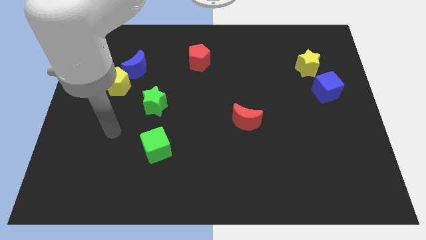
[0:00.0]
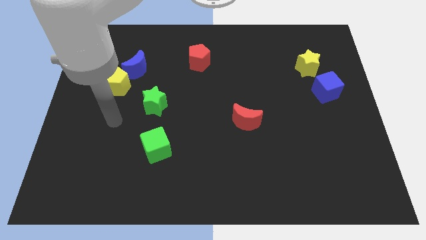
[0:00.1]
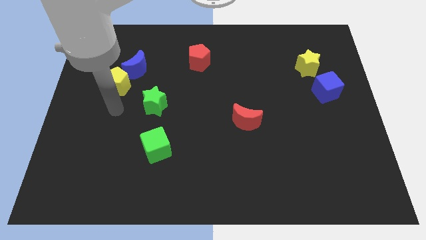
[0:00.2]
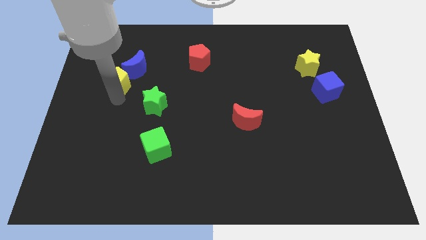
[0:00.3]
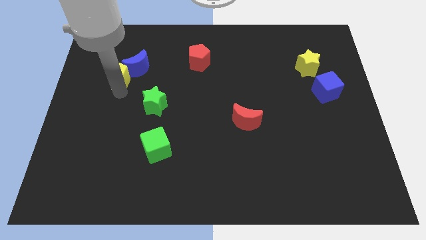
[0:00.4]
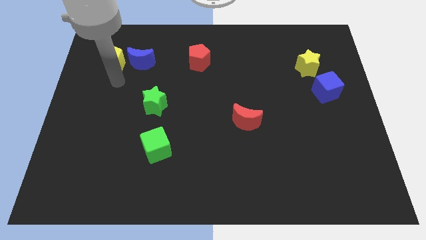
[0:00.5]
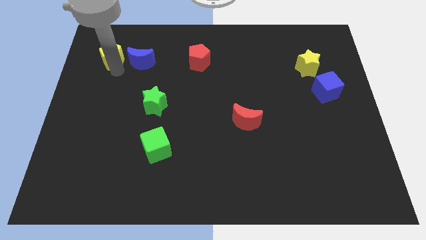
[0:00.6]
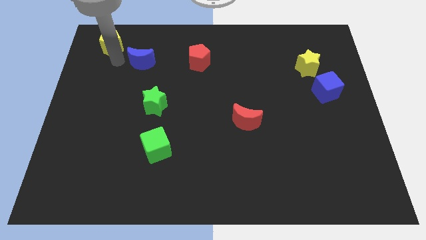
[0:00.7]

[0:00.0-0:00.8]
pull the blue moon apart from the yellow pentagon

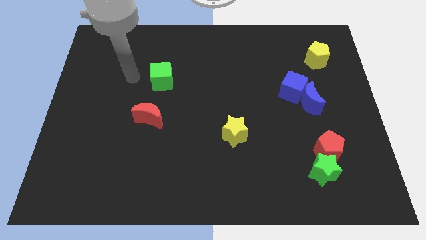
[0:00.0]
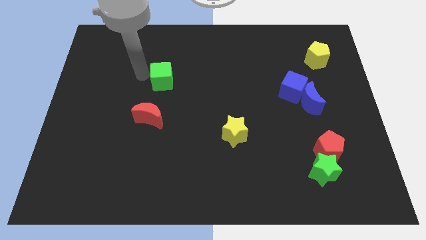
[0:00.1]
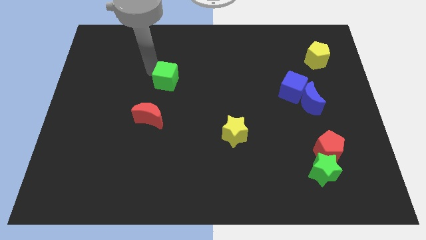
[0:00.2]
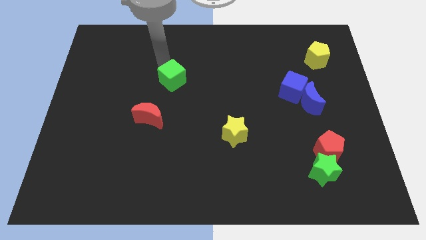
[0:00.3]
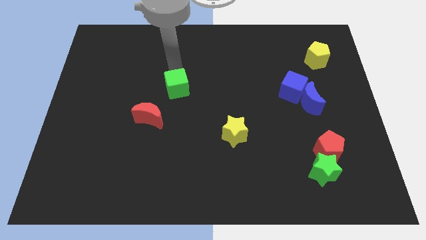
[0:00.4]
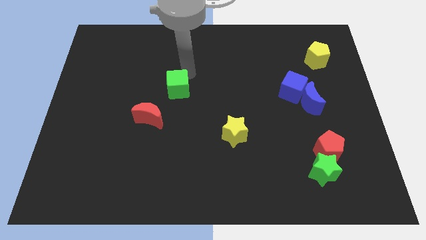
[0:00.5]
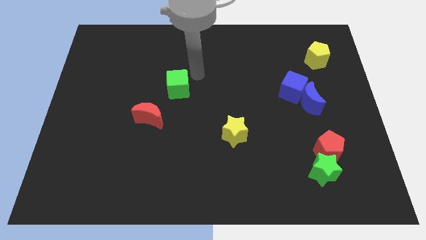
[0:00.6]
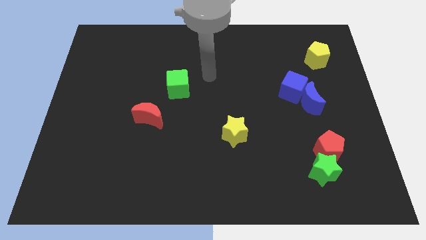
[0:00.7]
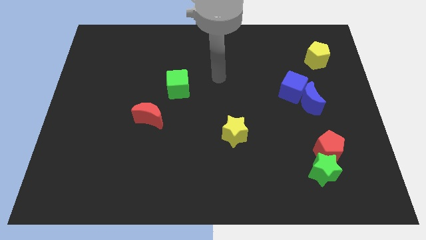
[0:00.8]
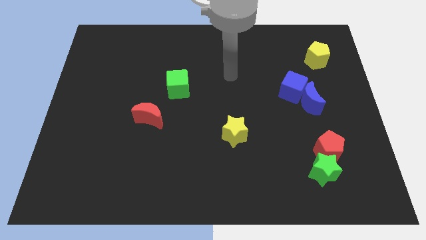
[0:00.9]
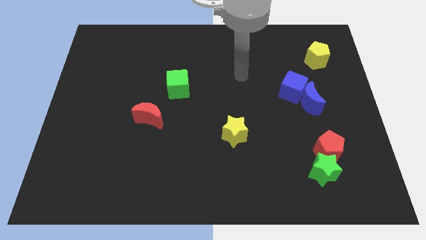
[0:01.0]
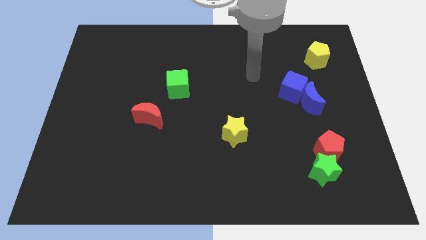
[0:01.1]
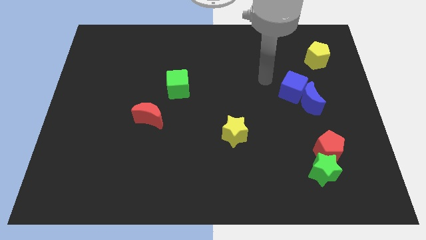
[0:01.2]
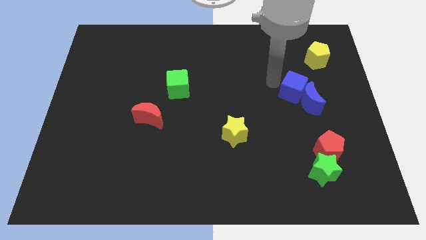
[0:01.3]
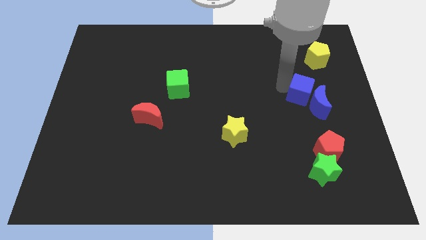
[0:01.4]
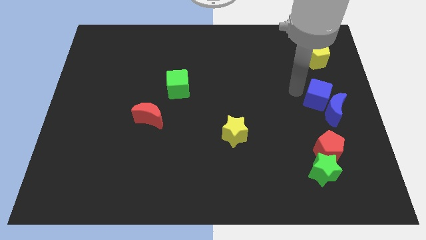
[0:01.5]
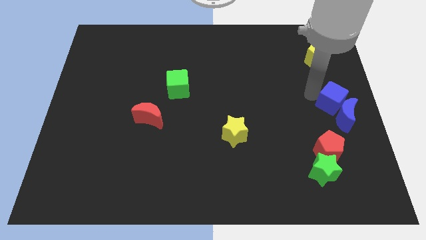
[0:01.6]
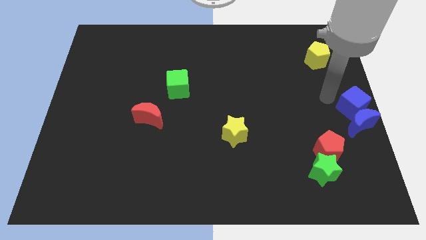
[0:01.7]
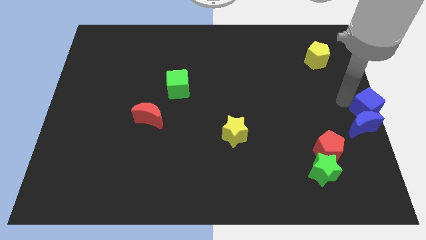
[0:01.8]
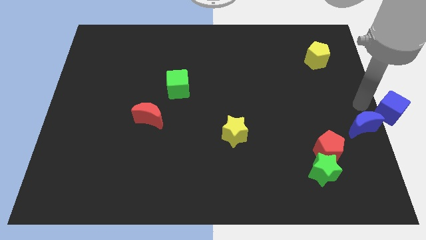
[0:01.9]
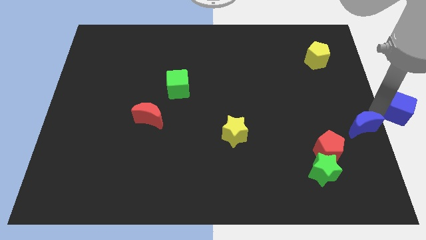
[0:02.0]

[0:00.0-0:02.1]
move the blue moon away from the blue cube

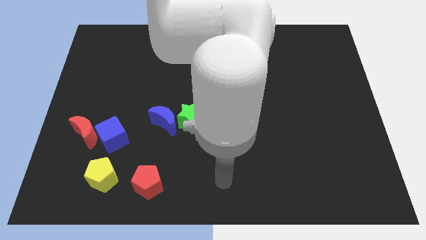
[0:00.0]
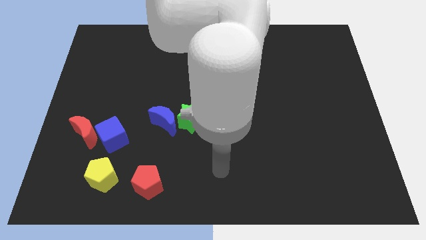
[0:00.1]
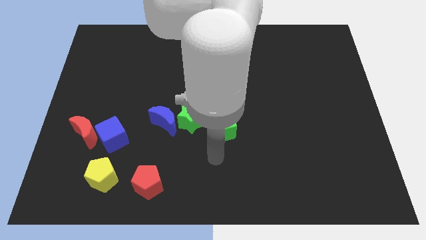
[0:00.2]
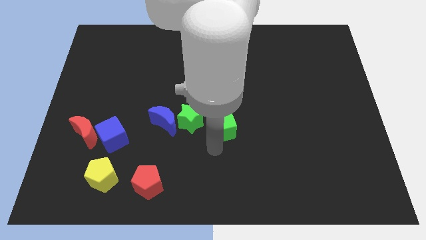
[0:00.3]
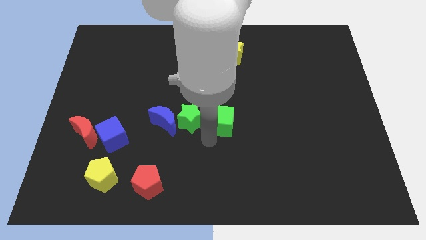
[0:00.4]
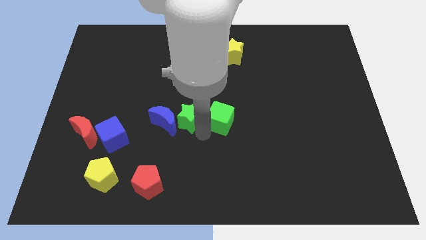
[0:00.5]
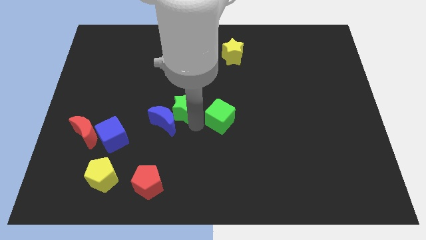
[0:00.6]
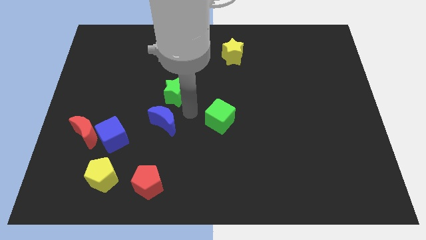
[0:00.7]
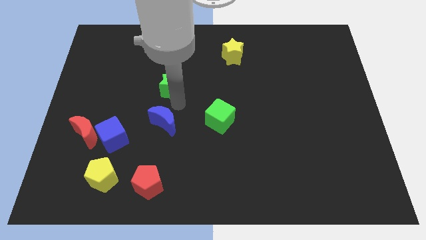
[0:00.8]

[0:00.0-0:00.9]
separate the blue moon from the green star

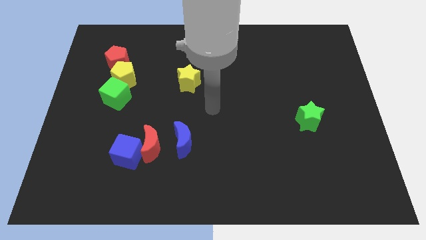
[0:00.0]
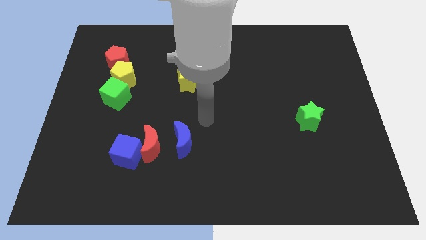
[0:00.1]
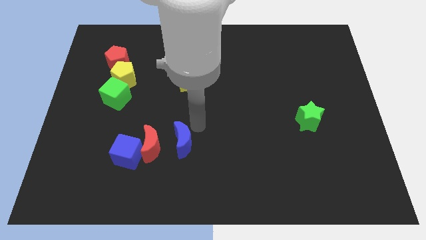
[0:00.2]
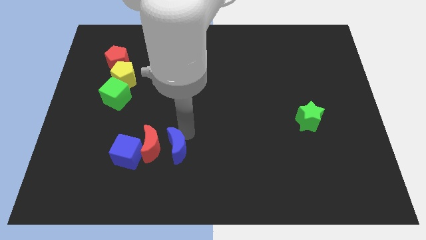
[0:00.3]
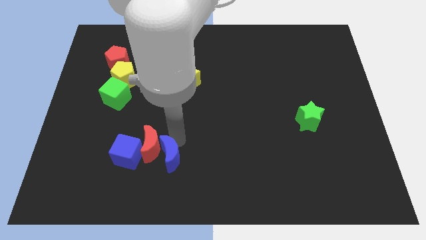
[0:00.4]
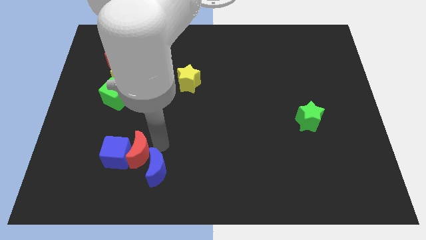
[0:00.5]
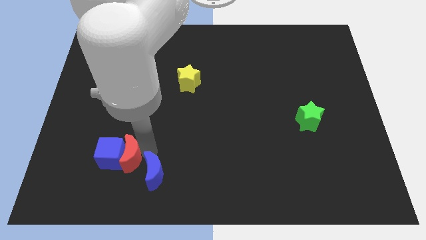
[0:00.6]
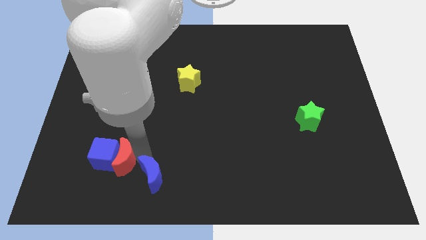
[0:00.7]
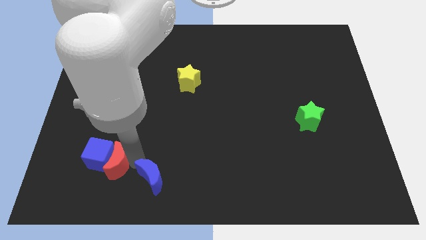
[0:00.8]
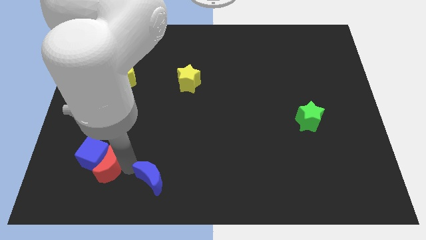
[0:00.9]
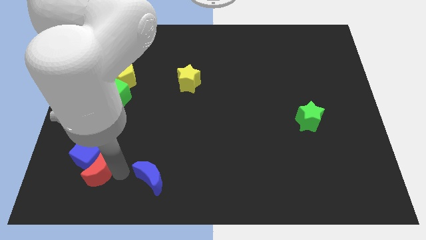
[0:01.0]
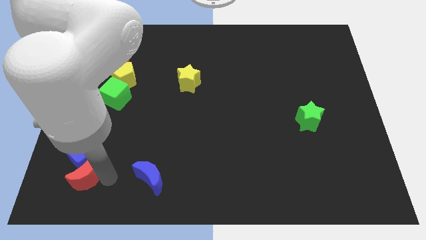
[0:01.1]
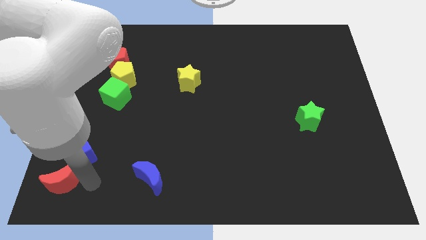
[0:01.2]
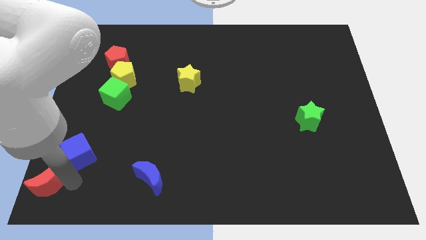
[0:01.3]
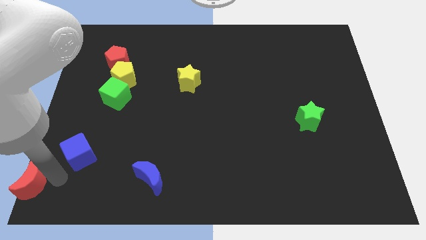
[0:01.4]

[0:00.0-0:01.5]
separate the blue cube from the red moon

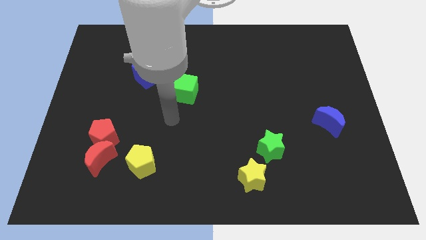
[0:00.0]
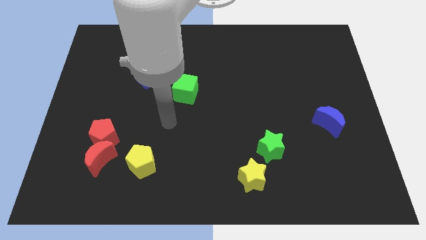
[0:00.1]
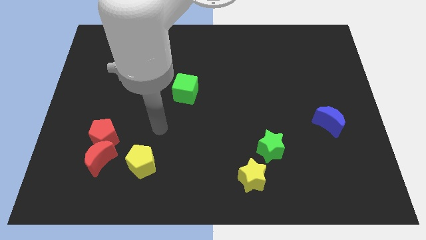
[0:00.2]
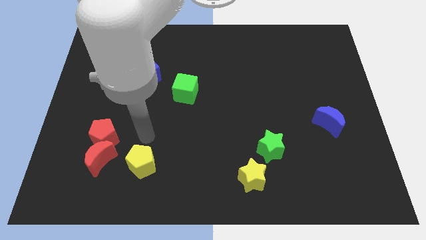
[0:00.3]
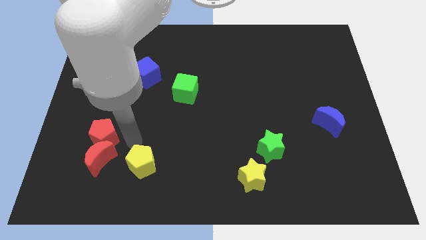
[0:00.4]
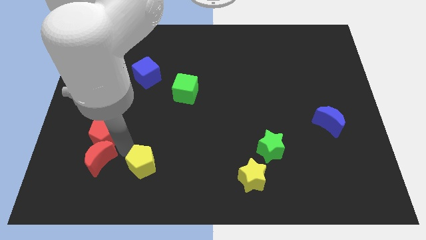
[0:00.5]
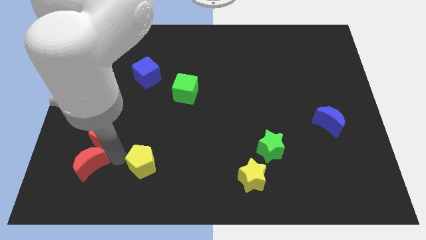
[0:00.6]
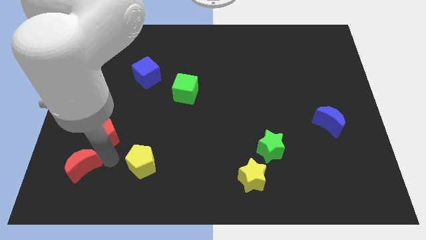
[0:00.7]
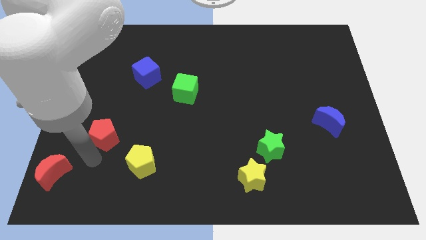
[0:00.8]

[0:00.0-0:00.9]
separate the red pentagon from the red moon

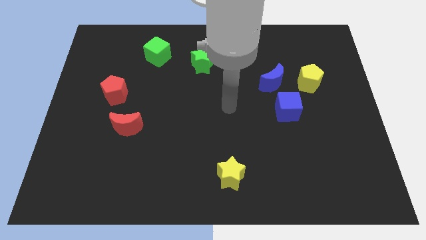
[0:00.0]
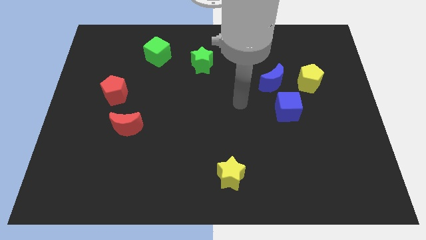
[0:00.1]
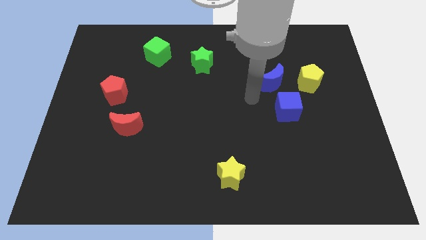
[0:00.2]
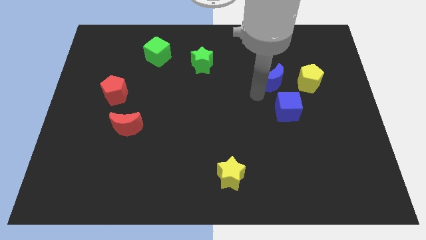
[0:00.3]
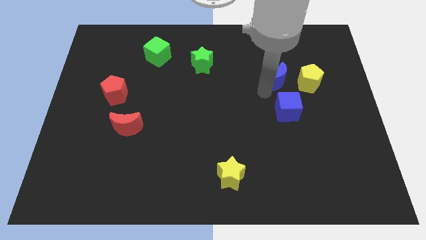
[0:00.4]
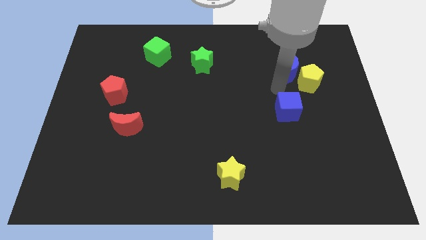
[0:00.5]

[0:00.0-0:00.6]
pull the blue cube apart from the blue moon

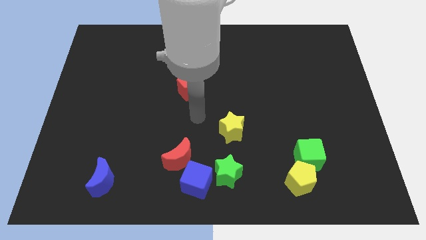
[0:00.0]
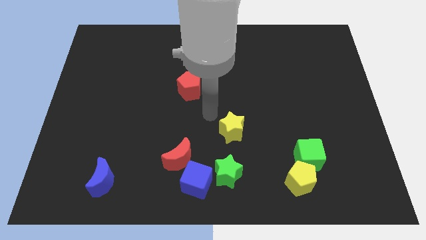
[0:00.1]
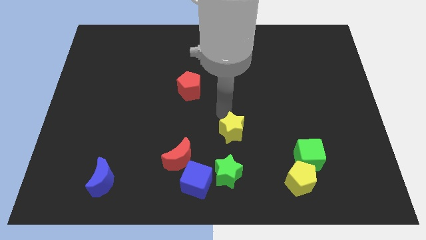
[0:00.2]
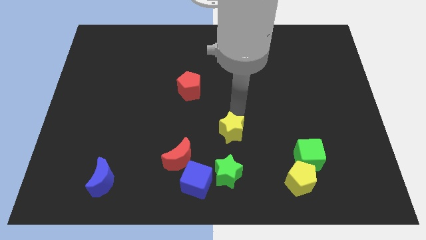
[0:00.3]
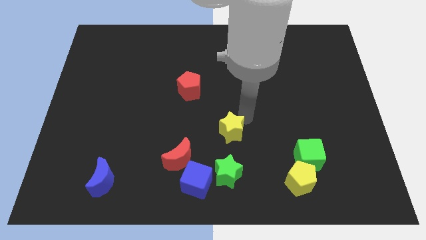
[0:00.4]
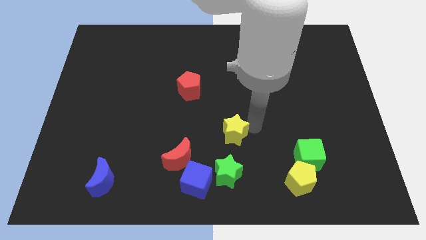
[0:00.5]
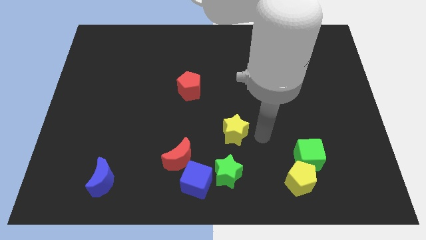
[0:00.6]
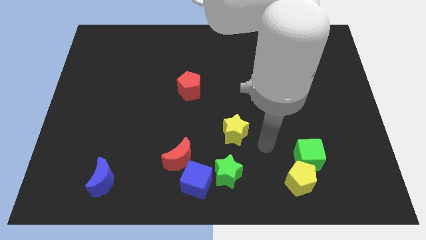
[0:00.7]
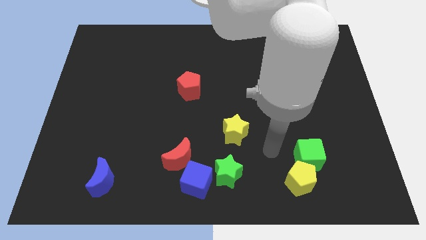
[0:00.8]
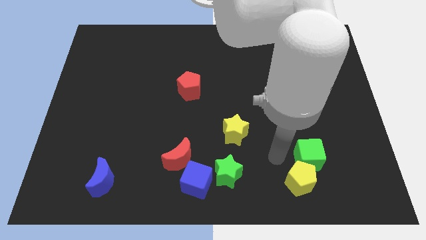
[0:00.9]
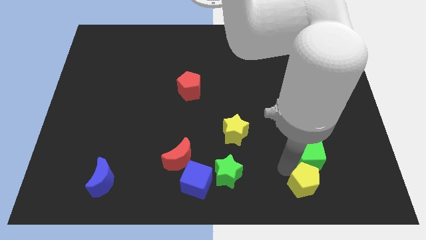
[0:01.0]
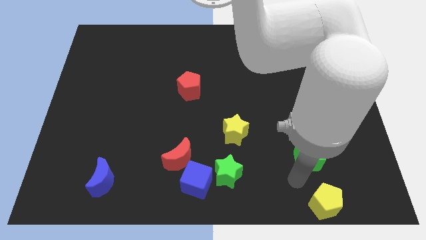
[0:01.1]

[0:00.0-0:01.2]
pull the green cube apart from the yellow pentagon

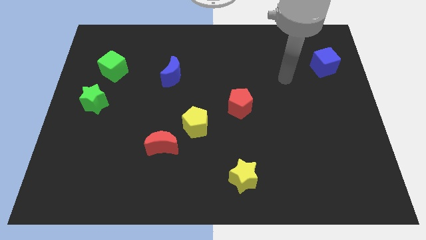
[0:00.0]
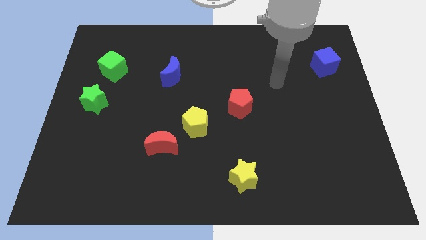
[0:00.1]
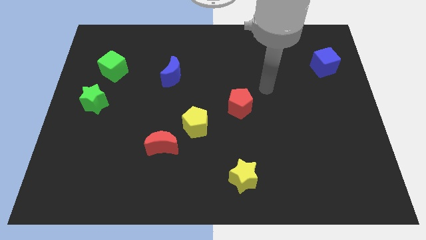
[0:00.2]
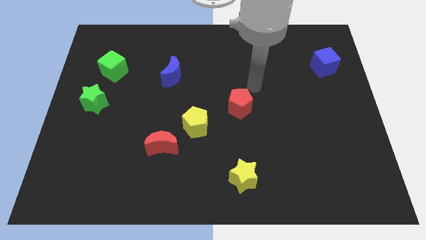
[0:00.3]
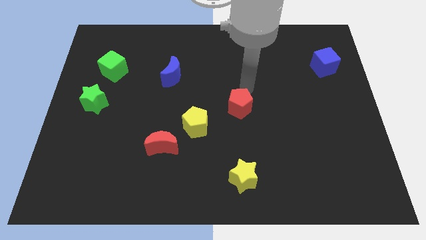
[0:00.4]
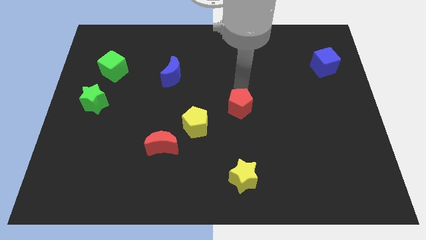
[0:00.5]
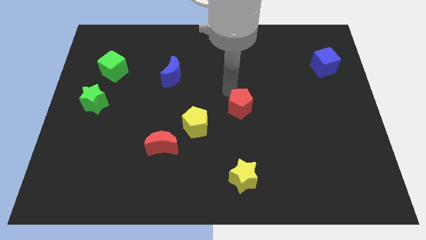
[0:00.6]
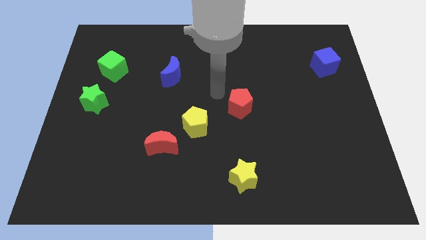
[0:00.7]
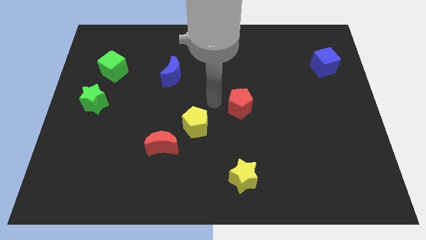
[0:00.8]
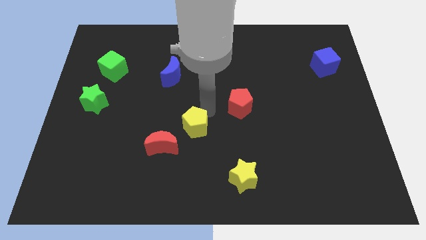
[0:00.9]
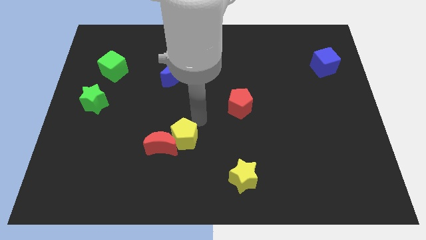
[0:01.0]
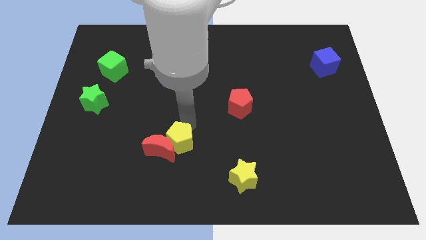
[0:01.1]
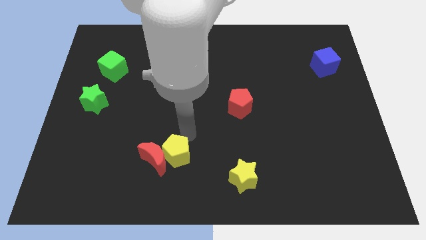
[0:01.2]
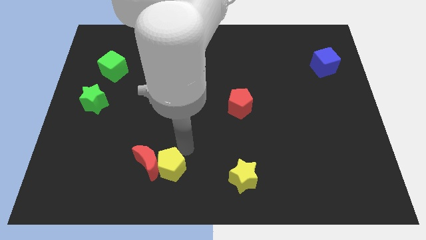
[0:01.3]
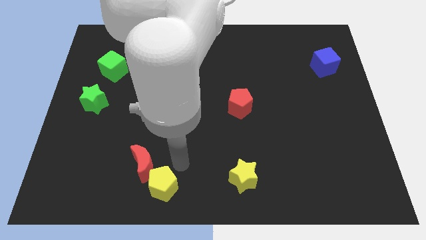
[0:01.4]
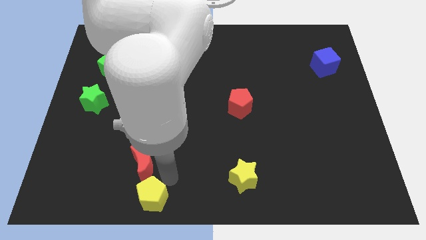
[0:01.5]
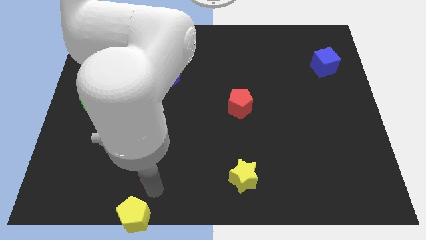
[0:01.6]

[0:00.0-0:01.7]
pull the red moon apart from the yellow pentagon
